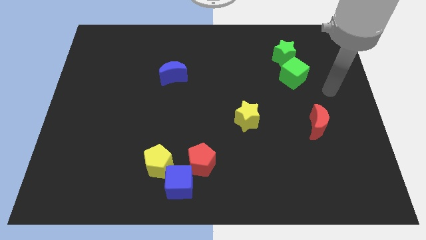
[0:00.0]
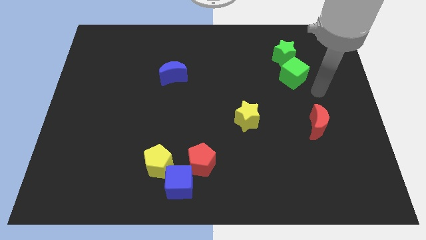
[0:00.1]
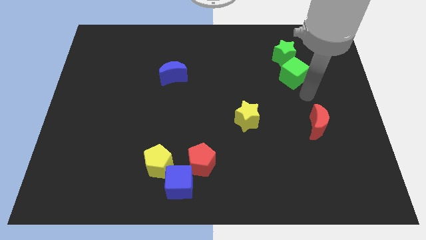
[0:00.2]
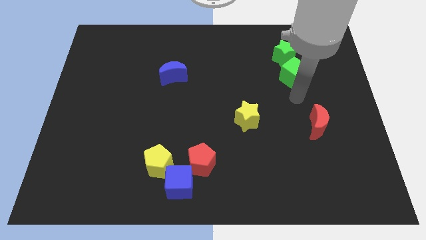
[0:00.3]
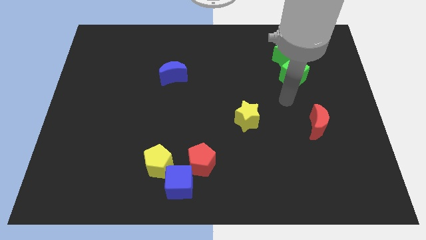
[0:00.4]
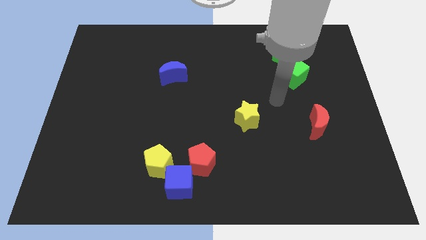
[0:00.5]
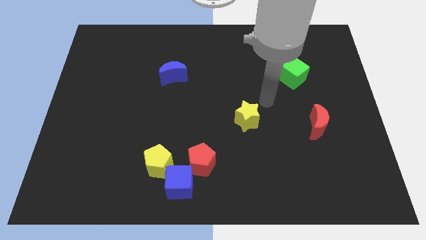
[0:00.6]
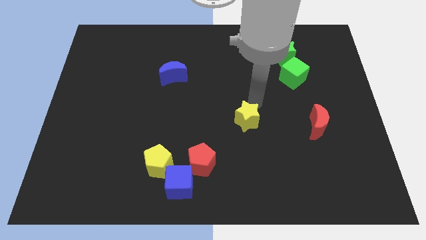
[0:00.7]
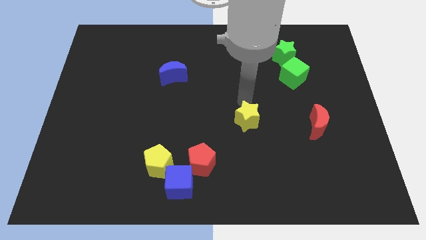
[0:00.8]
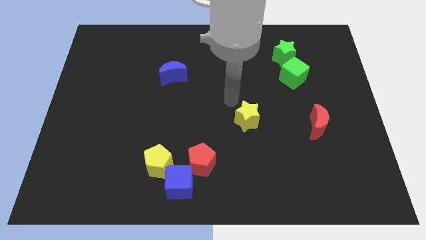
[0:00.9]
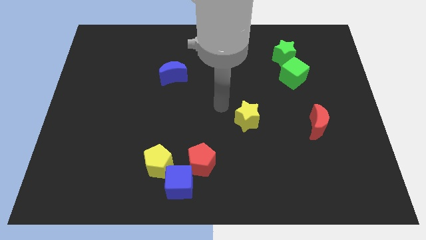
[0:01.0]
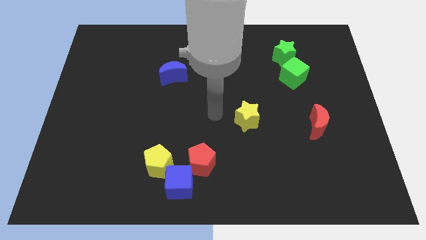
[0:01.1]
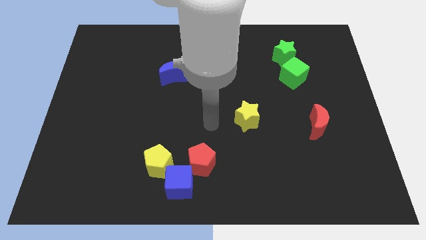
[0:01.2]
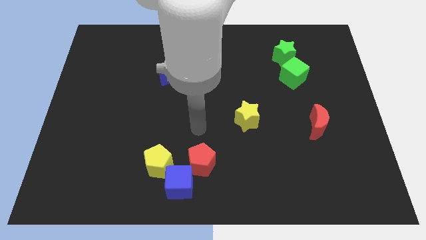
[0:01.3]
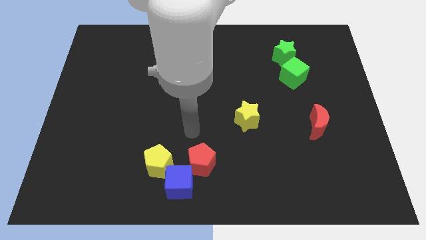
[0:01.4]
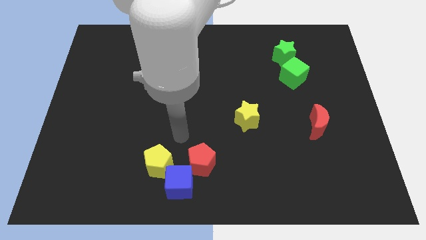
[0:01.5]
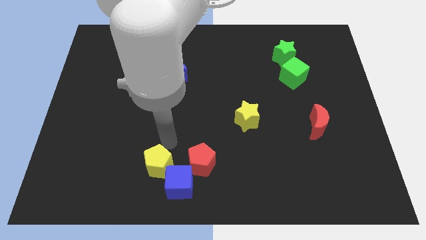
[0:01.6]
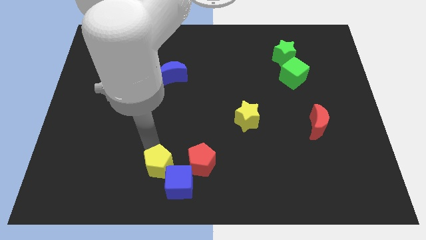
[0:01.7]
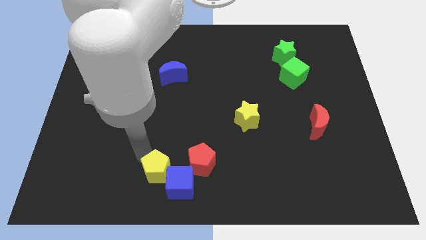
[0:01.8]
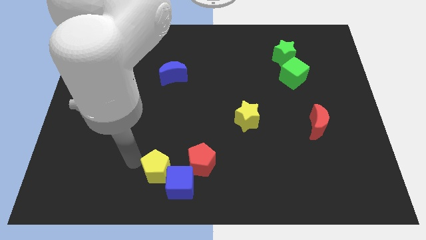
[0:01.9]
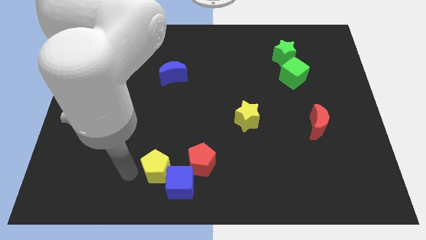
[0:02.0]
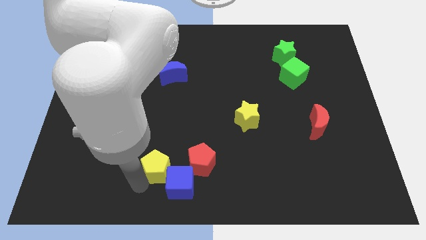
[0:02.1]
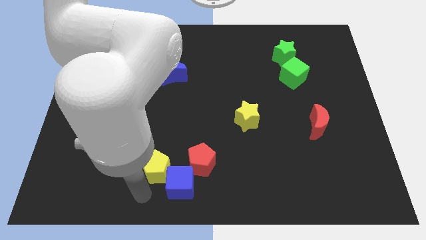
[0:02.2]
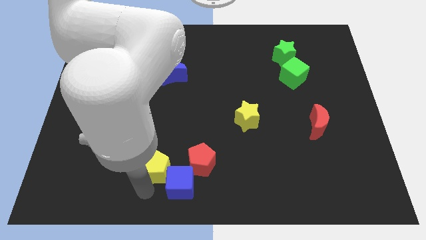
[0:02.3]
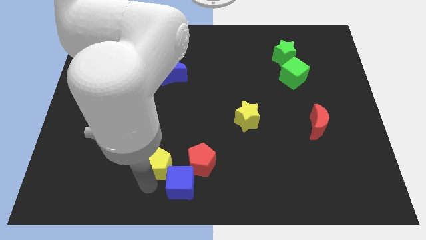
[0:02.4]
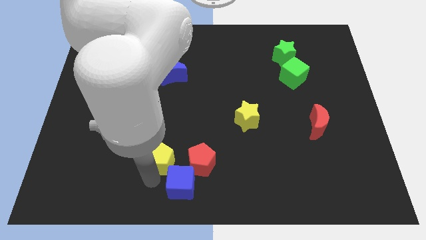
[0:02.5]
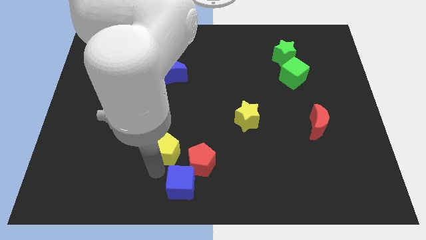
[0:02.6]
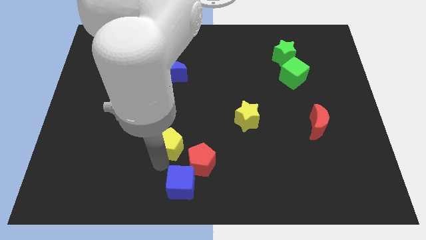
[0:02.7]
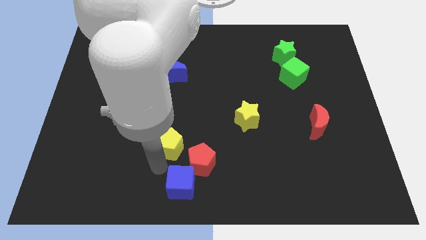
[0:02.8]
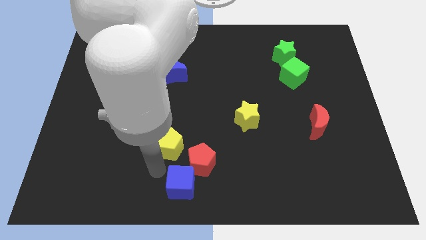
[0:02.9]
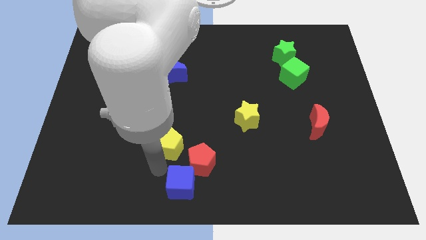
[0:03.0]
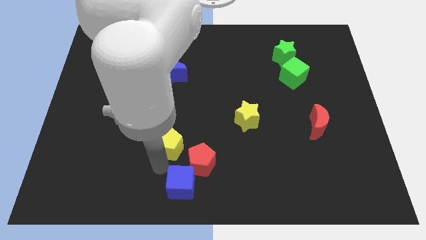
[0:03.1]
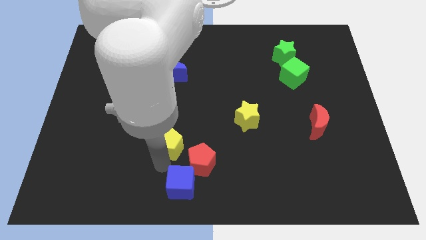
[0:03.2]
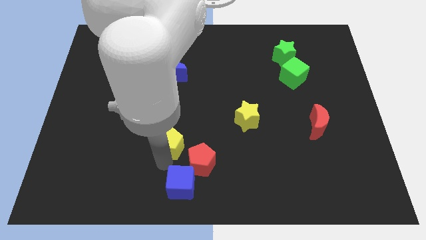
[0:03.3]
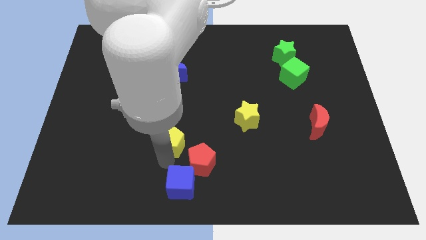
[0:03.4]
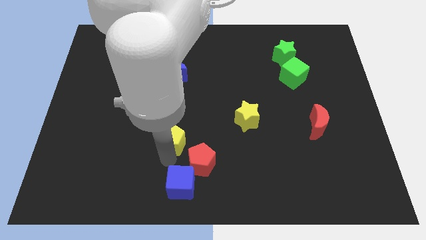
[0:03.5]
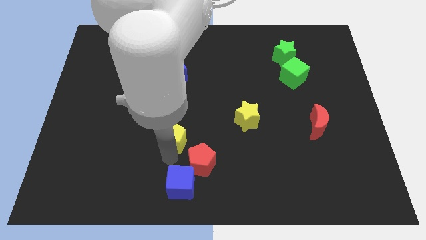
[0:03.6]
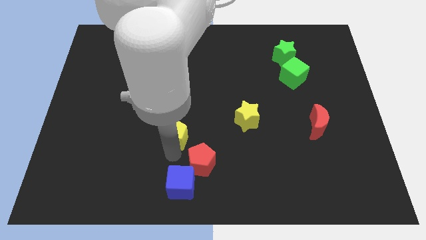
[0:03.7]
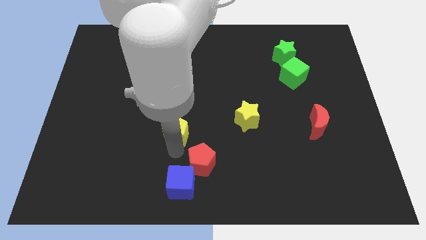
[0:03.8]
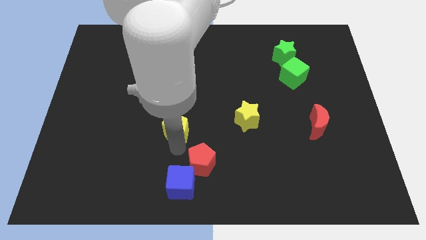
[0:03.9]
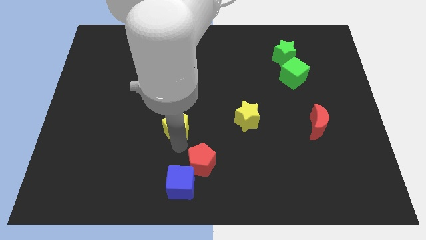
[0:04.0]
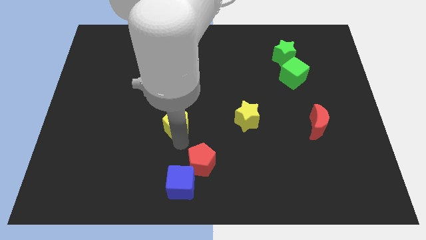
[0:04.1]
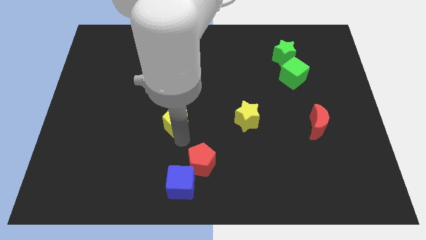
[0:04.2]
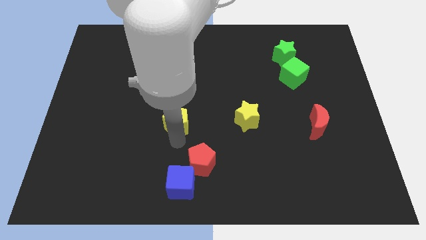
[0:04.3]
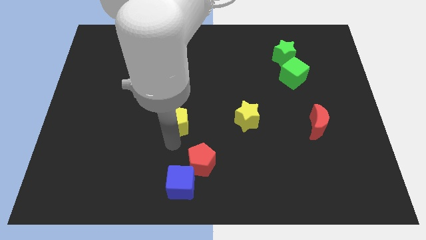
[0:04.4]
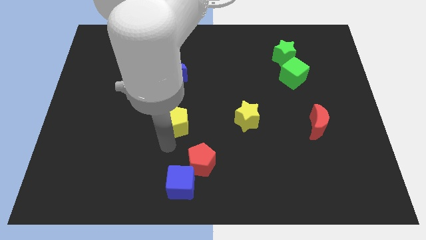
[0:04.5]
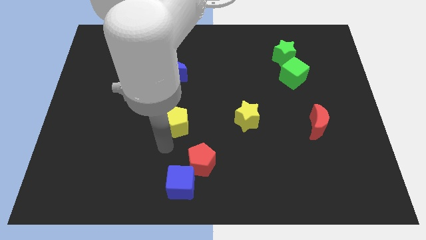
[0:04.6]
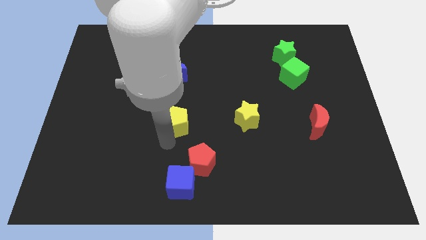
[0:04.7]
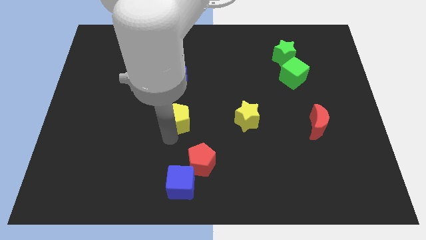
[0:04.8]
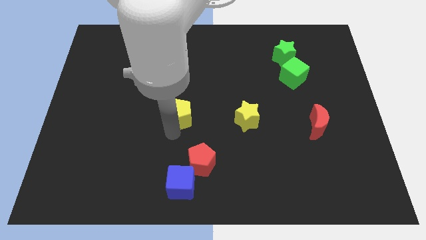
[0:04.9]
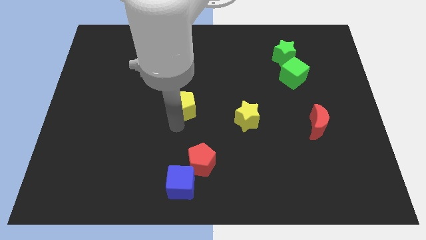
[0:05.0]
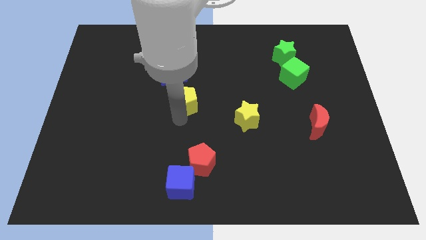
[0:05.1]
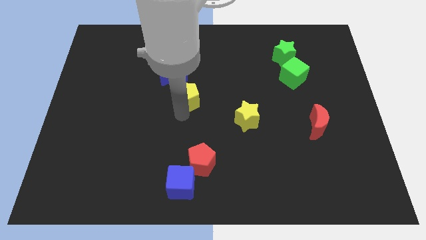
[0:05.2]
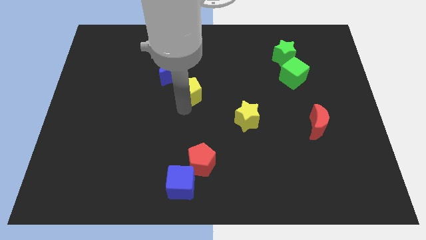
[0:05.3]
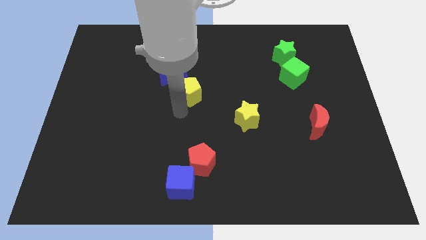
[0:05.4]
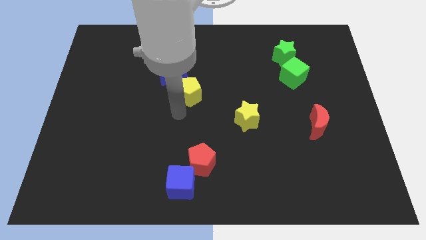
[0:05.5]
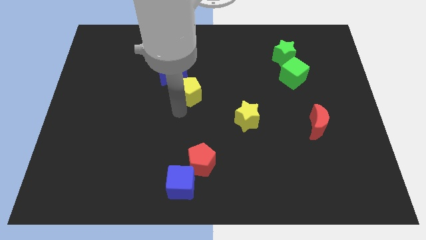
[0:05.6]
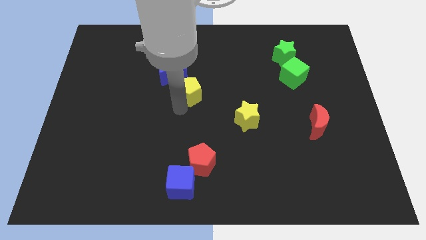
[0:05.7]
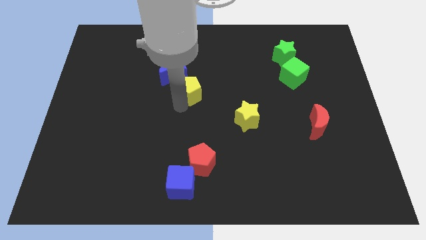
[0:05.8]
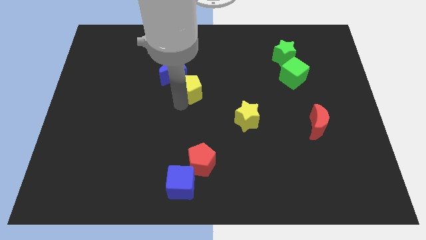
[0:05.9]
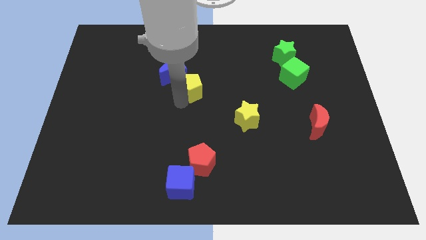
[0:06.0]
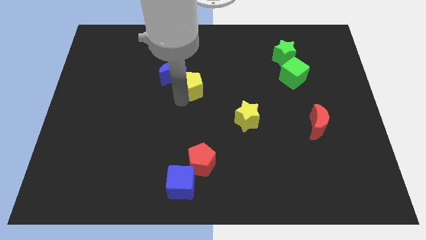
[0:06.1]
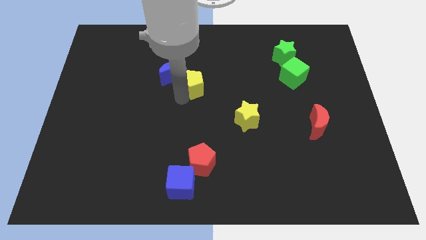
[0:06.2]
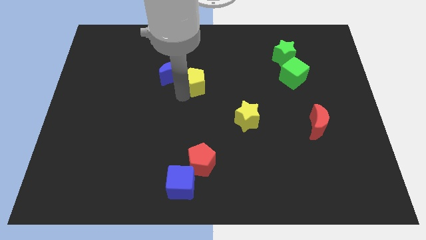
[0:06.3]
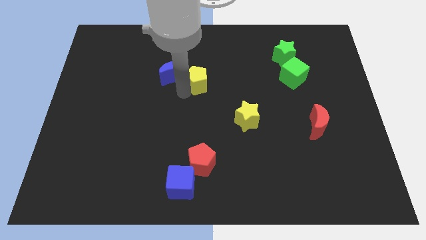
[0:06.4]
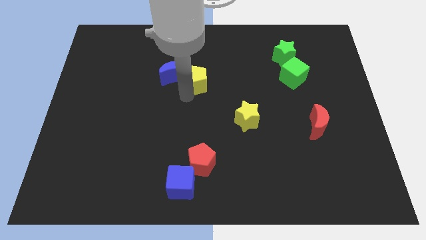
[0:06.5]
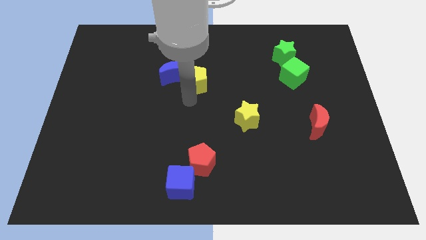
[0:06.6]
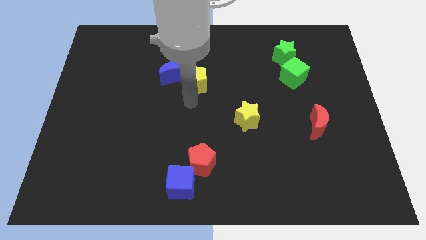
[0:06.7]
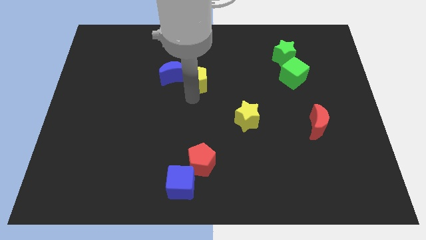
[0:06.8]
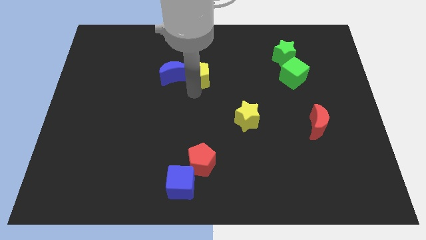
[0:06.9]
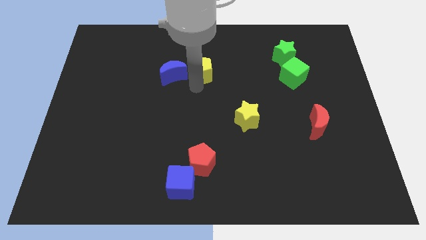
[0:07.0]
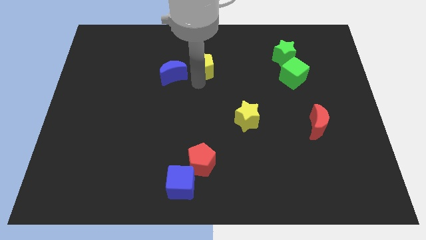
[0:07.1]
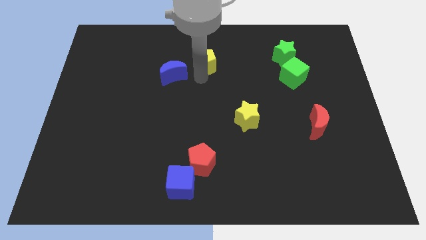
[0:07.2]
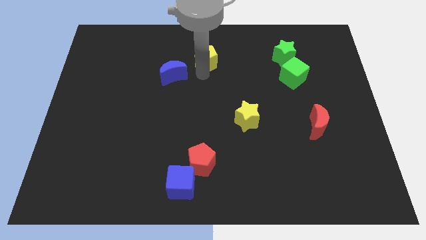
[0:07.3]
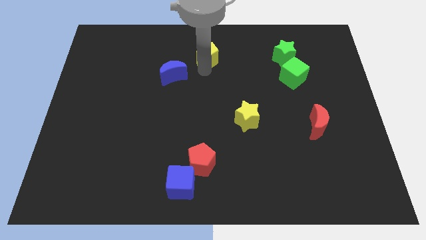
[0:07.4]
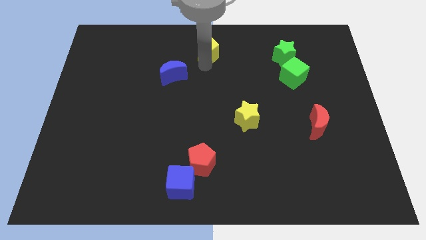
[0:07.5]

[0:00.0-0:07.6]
put the yellow pentagon to the towards your base
